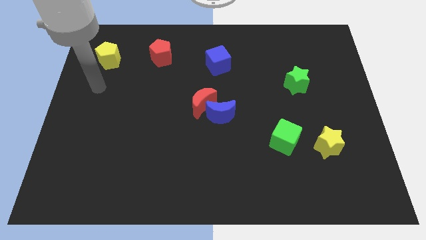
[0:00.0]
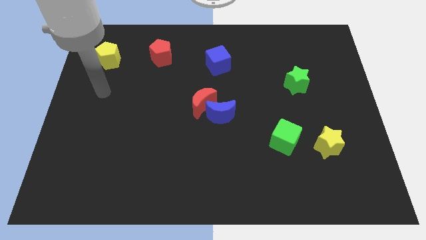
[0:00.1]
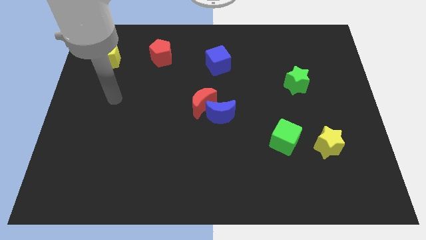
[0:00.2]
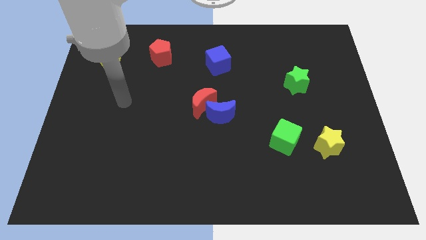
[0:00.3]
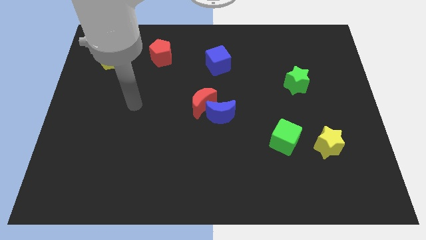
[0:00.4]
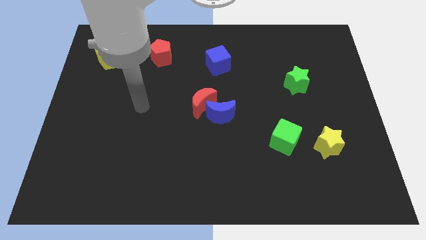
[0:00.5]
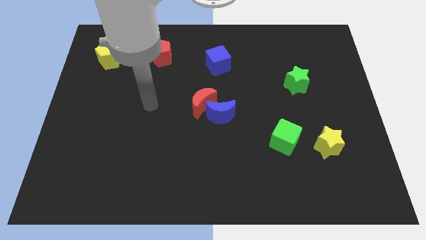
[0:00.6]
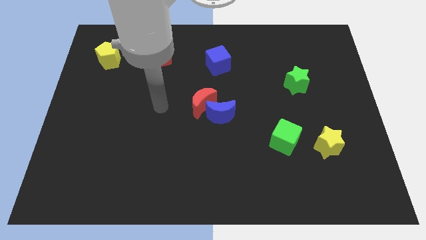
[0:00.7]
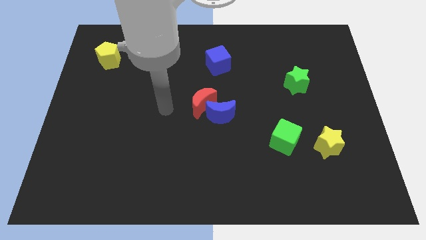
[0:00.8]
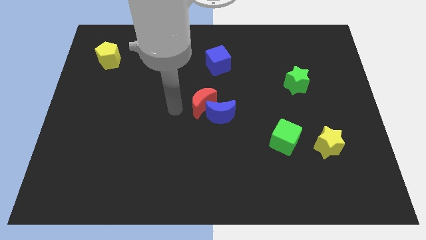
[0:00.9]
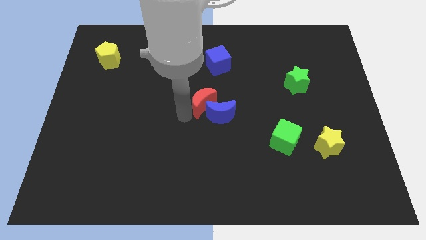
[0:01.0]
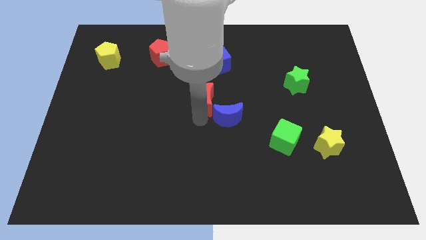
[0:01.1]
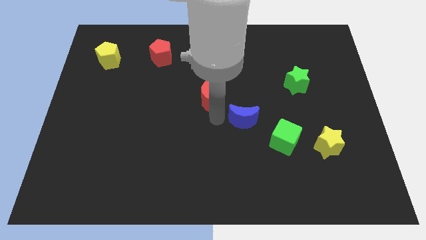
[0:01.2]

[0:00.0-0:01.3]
move the red moon away from the blue moon

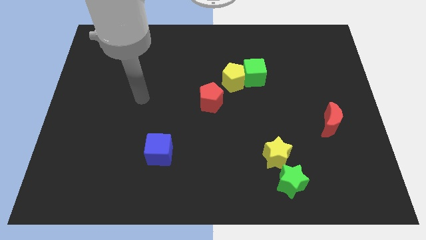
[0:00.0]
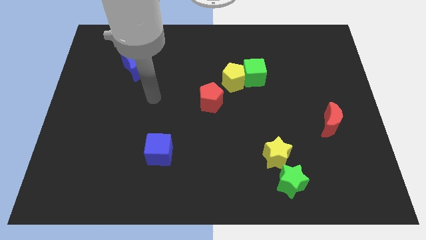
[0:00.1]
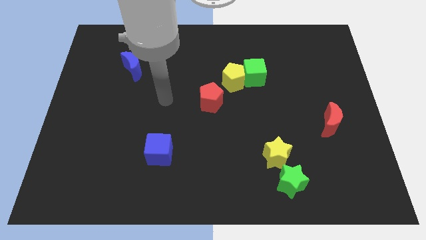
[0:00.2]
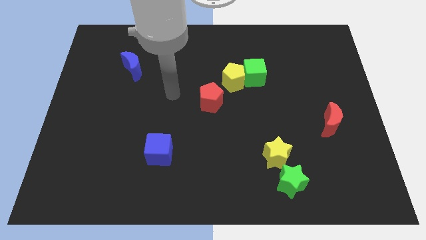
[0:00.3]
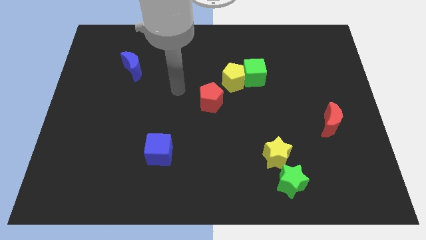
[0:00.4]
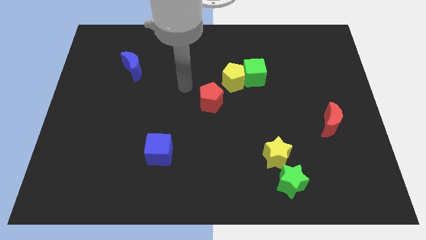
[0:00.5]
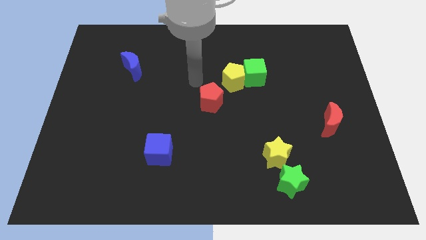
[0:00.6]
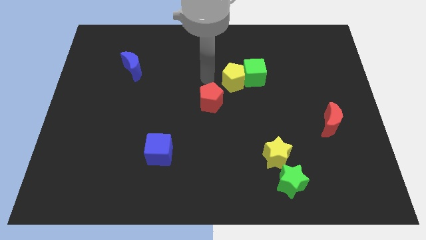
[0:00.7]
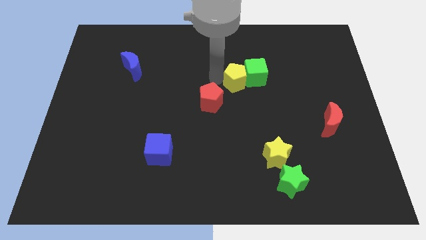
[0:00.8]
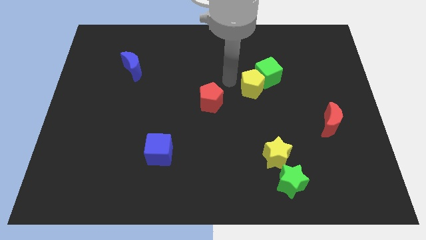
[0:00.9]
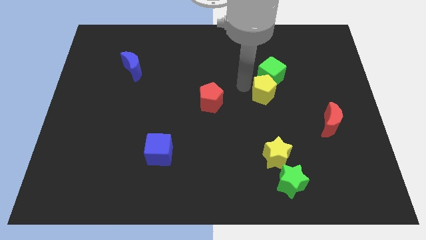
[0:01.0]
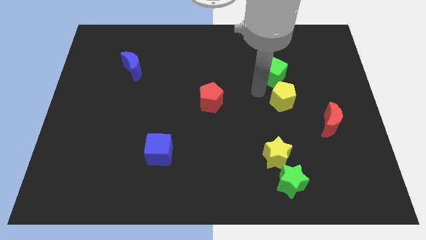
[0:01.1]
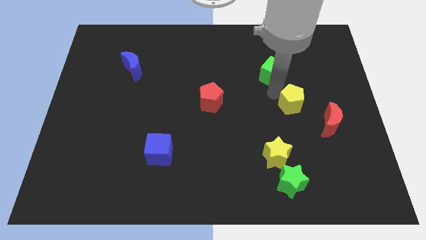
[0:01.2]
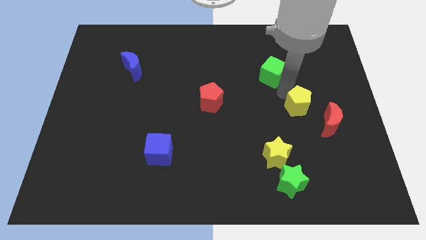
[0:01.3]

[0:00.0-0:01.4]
move the green cube away from the yellow pentagon

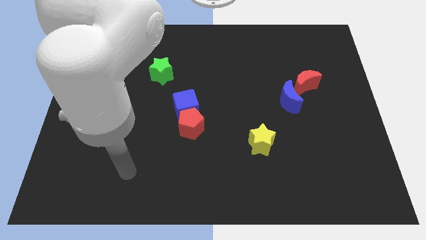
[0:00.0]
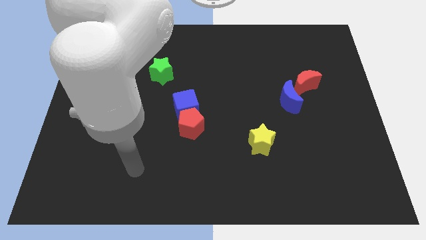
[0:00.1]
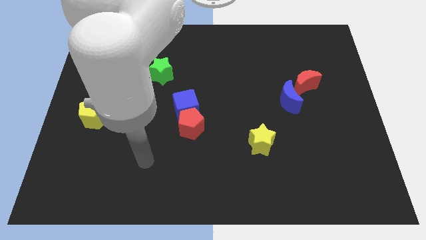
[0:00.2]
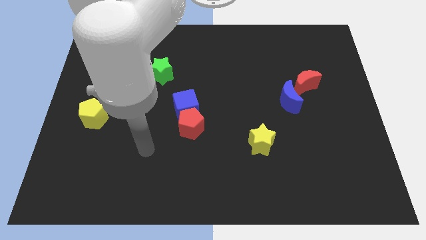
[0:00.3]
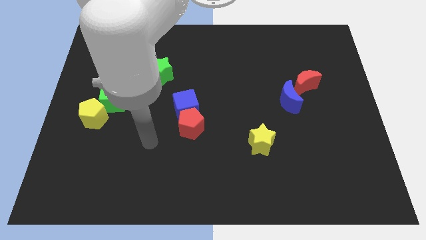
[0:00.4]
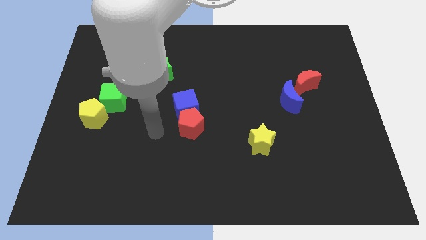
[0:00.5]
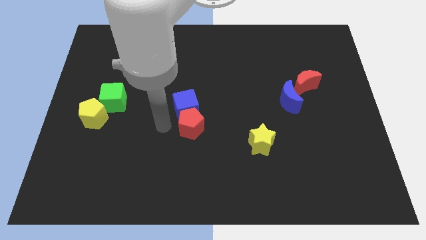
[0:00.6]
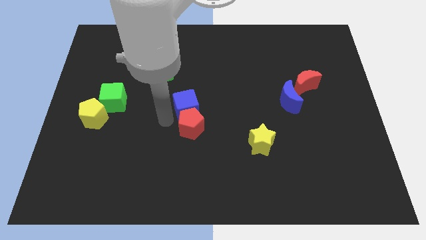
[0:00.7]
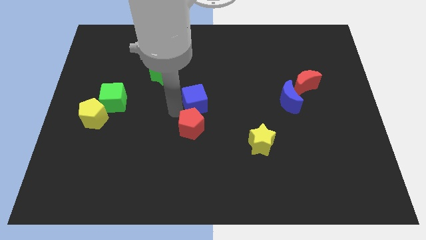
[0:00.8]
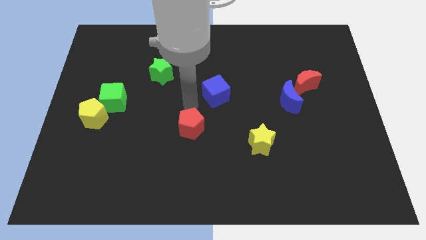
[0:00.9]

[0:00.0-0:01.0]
separate the red pentagon from the blue cube

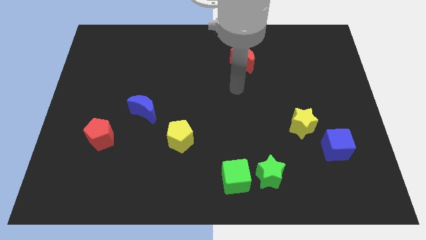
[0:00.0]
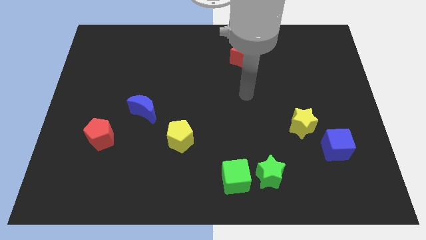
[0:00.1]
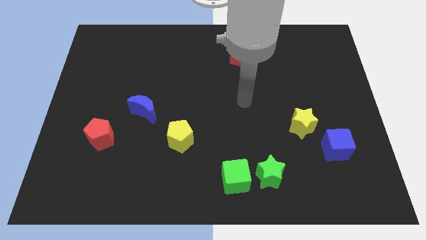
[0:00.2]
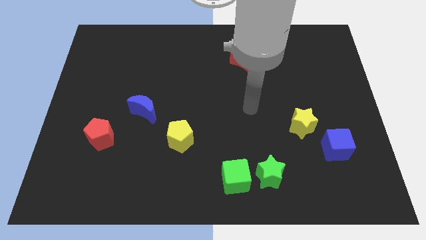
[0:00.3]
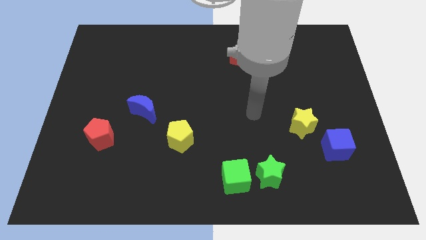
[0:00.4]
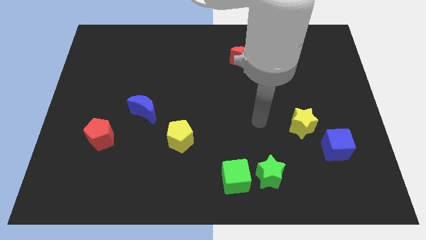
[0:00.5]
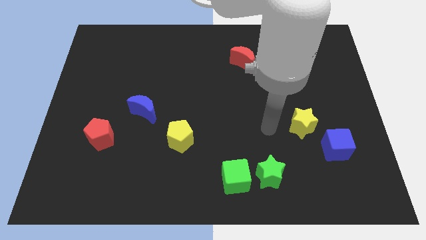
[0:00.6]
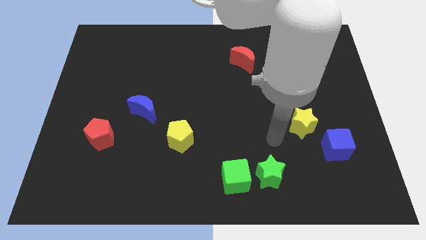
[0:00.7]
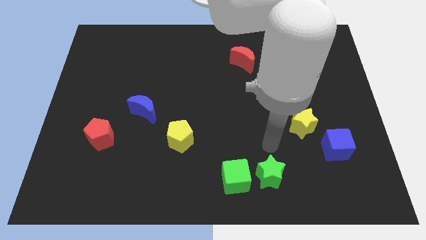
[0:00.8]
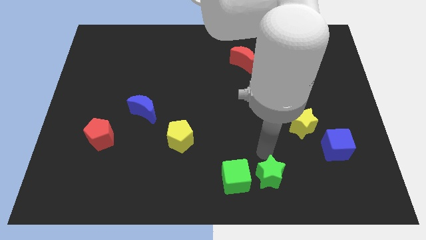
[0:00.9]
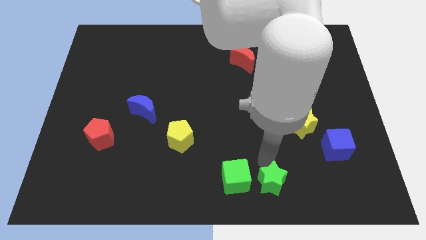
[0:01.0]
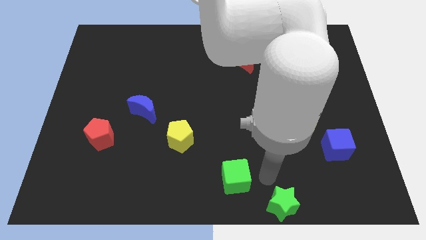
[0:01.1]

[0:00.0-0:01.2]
move the green cube away from the green star

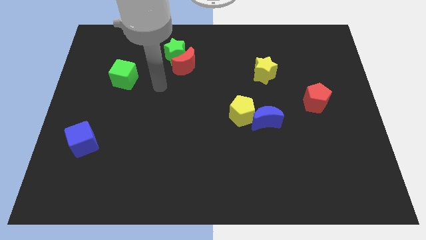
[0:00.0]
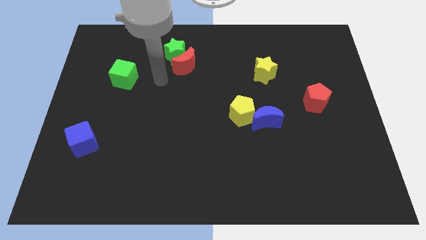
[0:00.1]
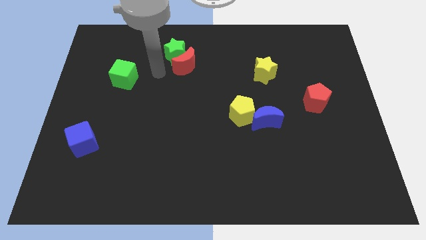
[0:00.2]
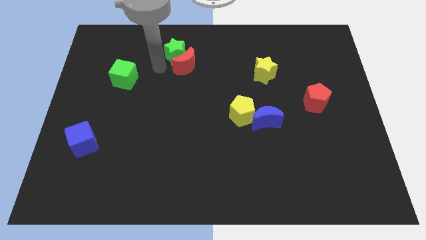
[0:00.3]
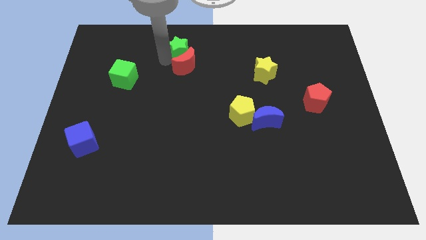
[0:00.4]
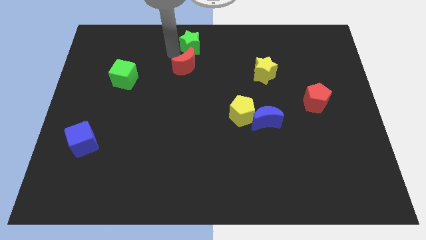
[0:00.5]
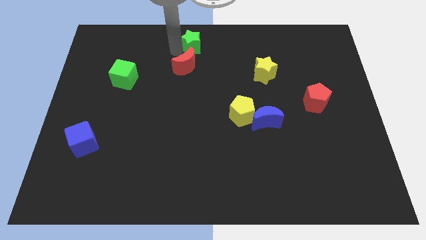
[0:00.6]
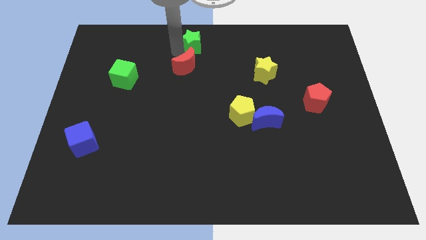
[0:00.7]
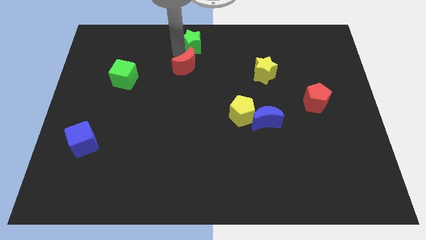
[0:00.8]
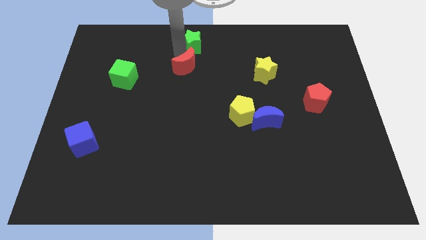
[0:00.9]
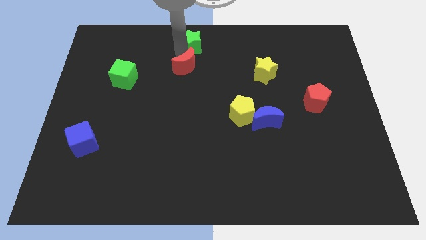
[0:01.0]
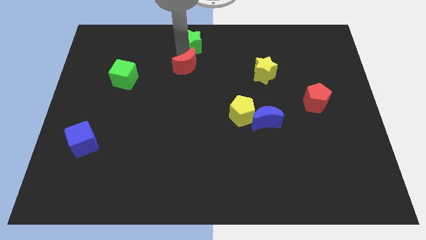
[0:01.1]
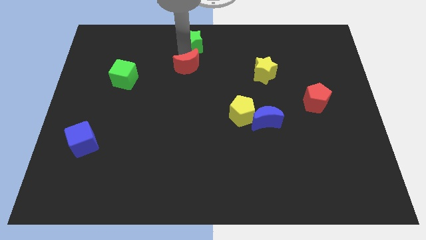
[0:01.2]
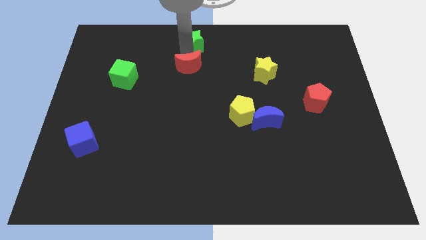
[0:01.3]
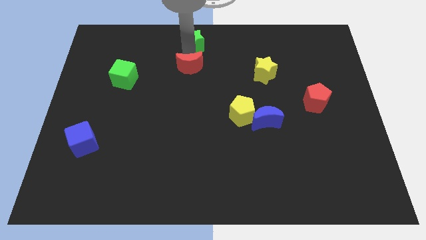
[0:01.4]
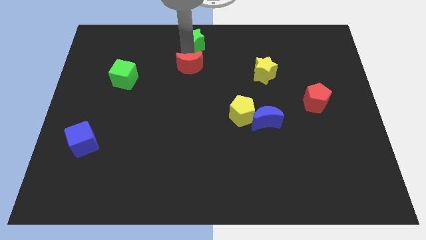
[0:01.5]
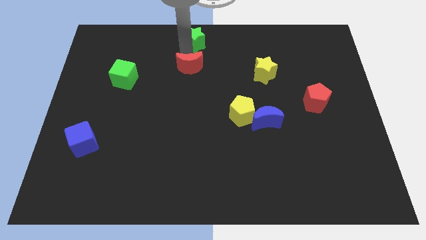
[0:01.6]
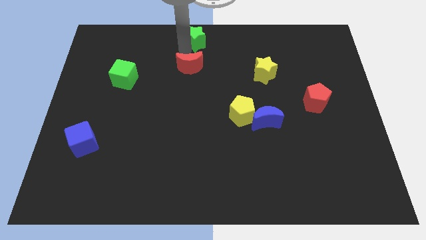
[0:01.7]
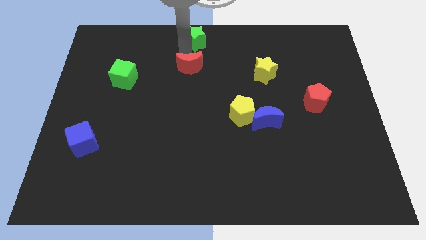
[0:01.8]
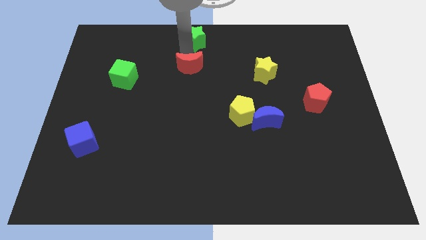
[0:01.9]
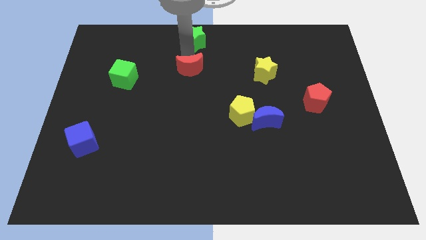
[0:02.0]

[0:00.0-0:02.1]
move the red moon away from the green star

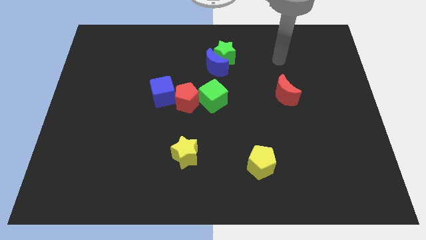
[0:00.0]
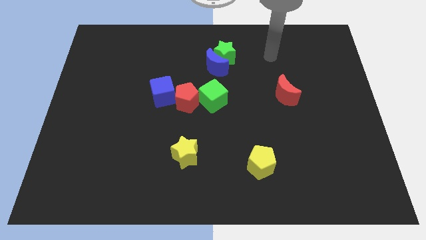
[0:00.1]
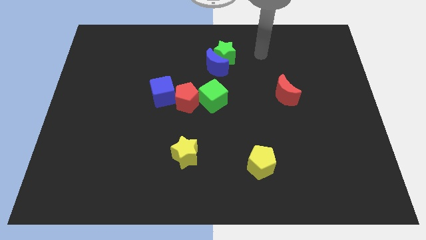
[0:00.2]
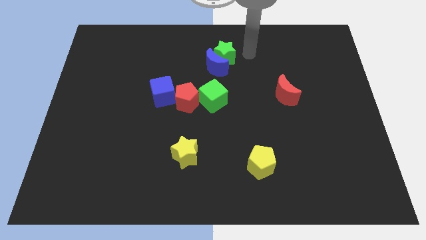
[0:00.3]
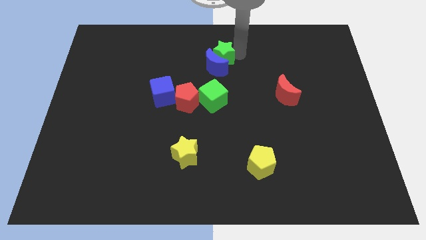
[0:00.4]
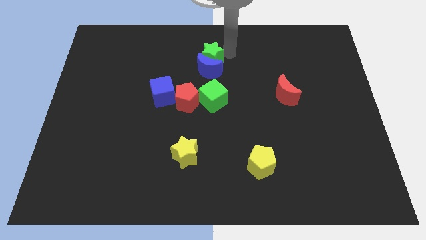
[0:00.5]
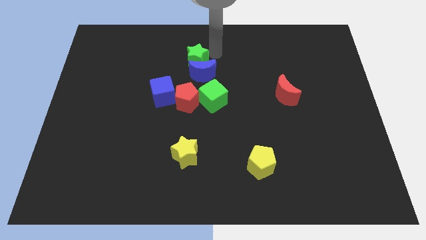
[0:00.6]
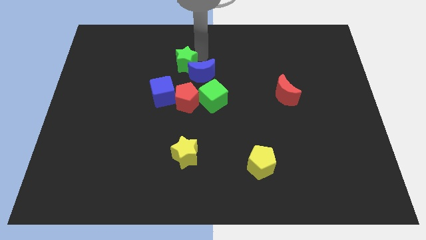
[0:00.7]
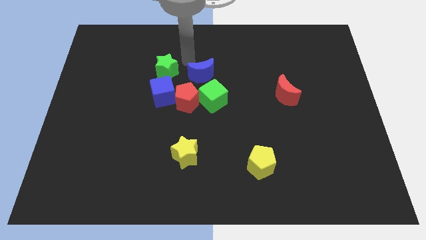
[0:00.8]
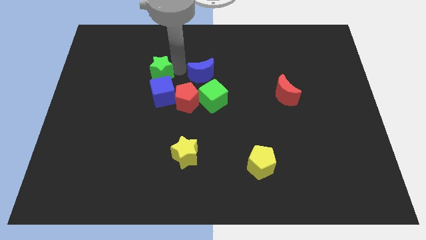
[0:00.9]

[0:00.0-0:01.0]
pull the blue moon apart from the green star

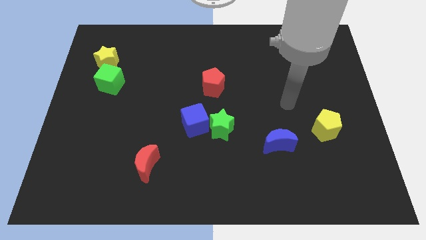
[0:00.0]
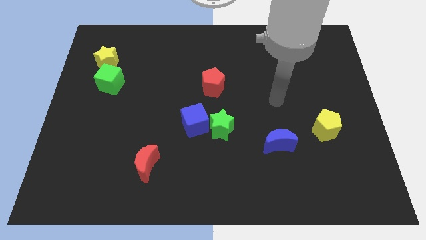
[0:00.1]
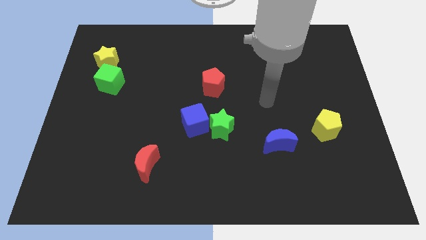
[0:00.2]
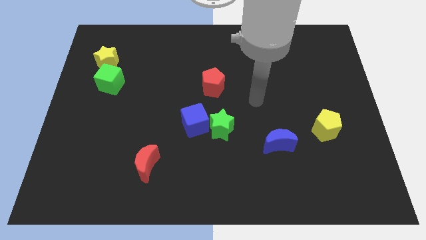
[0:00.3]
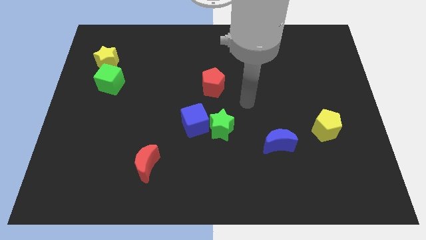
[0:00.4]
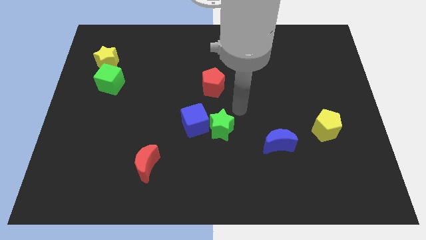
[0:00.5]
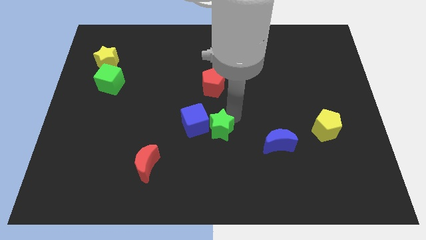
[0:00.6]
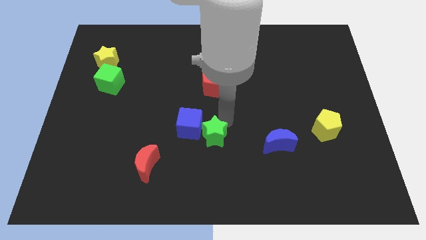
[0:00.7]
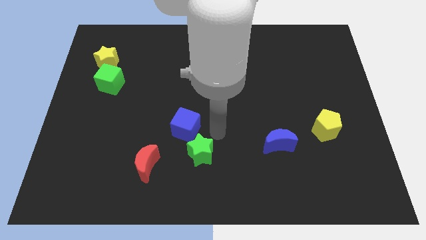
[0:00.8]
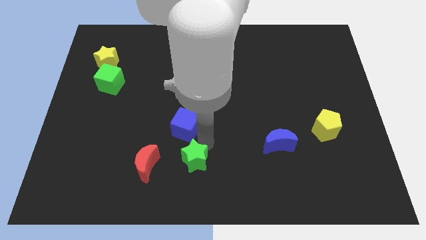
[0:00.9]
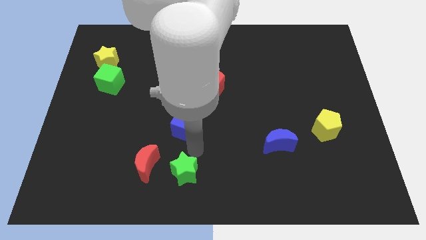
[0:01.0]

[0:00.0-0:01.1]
move the blue cube away from the green star
